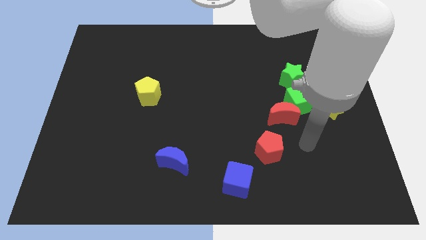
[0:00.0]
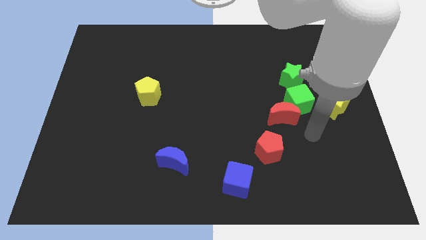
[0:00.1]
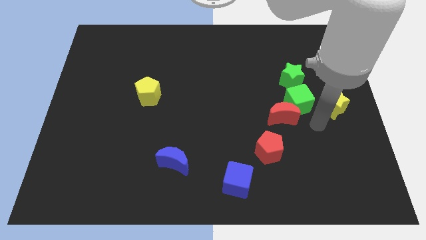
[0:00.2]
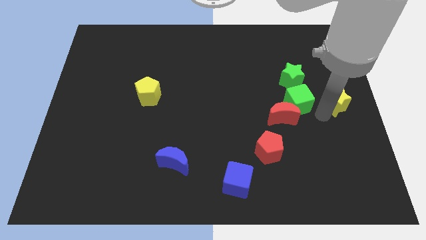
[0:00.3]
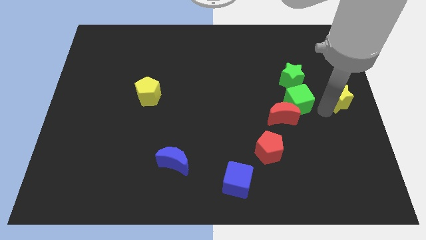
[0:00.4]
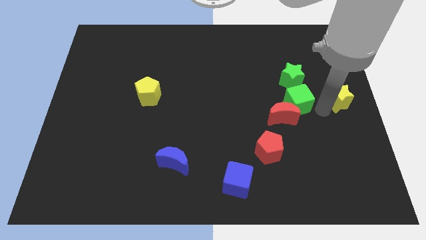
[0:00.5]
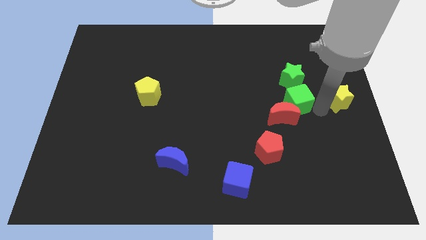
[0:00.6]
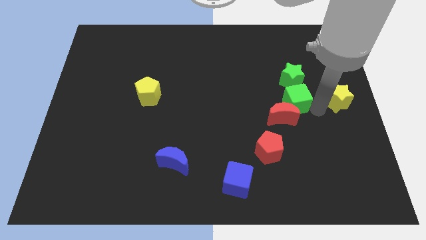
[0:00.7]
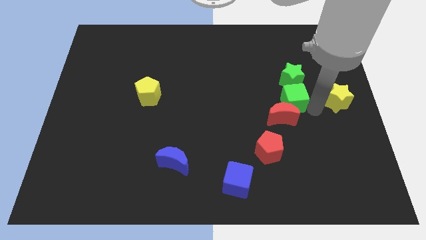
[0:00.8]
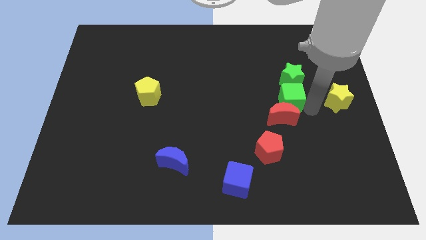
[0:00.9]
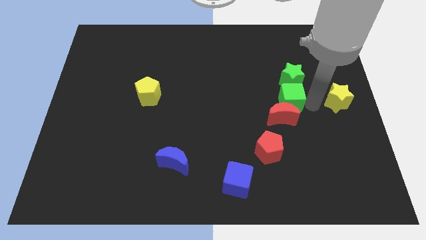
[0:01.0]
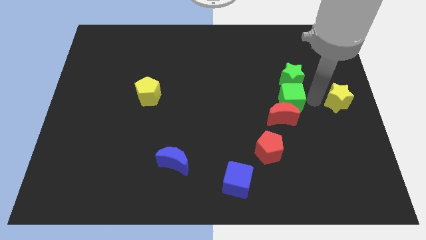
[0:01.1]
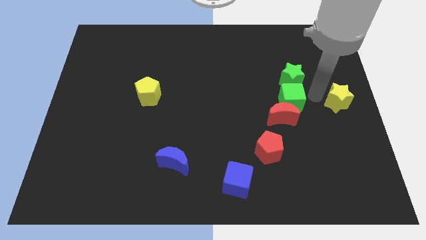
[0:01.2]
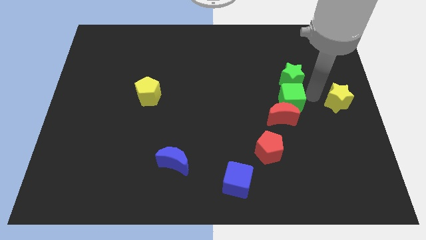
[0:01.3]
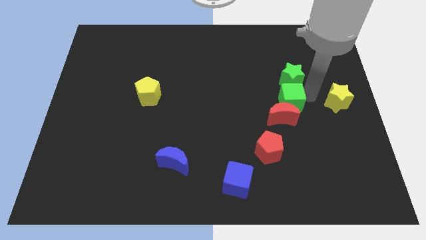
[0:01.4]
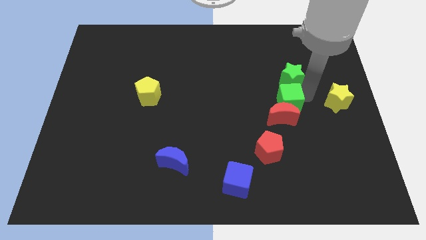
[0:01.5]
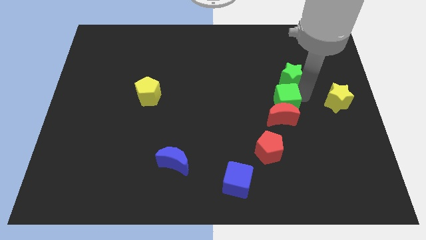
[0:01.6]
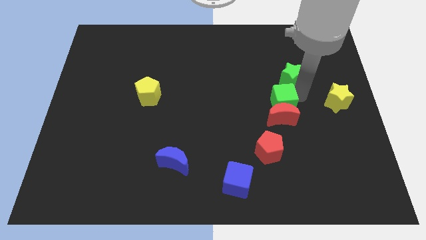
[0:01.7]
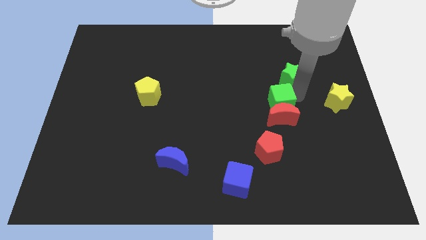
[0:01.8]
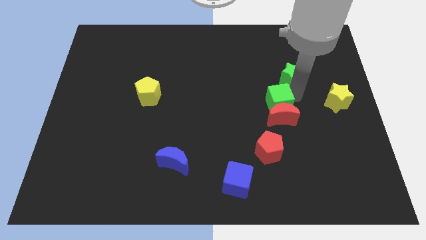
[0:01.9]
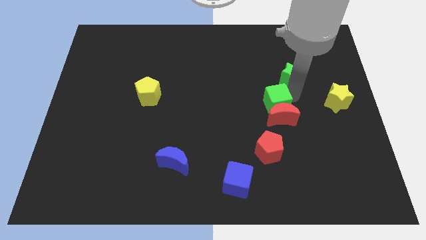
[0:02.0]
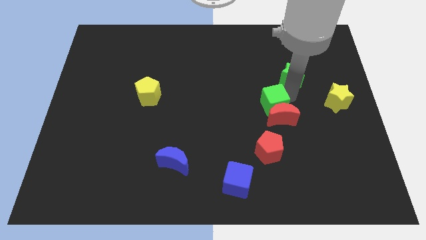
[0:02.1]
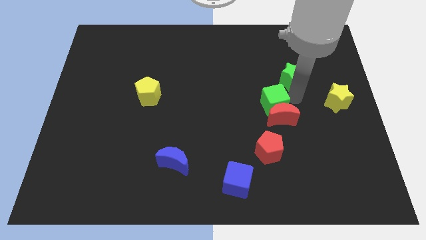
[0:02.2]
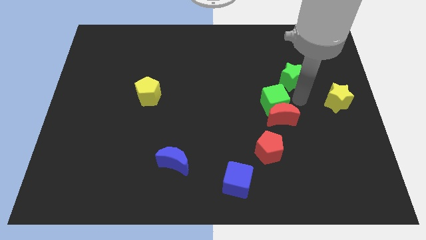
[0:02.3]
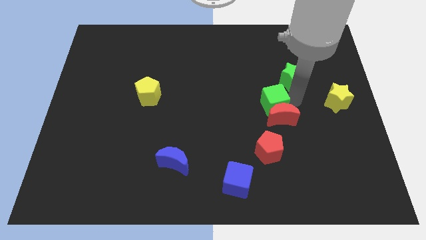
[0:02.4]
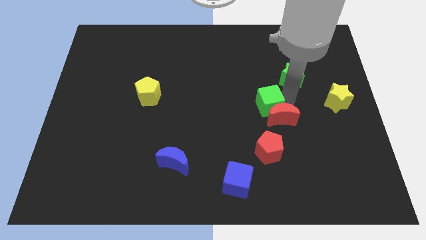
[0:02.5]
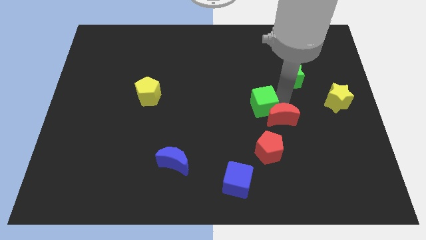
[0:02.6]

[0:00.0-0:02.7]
separate the green cube from the clump

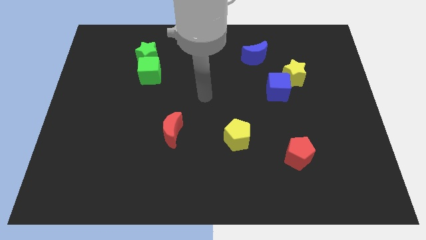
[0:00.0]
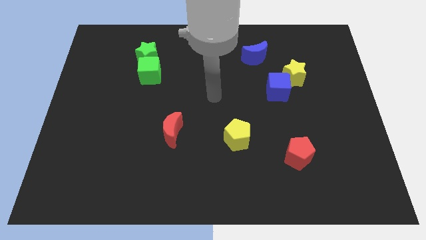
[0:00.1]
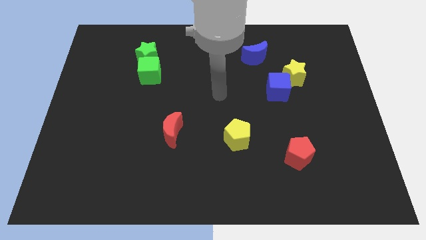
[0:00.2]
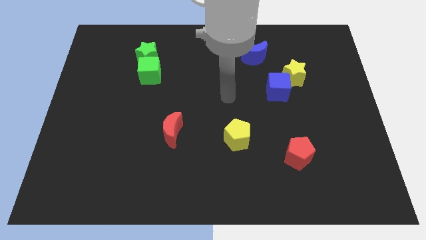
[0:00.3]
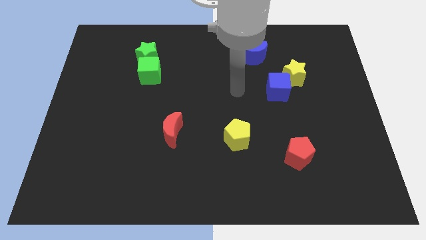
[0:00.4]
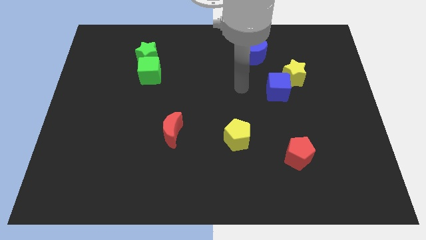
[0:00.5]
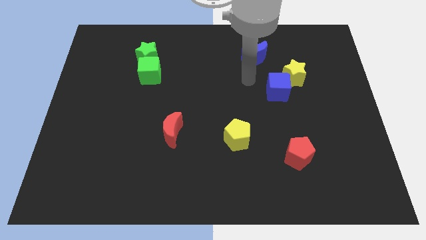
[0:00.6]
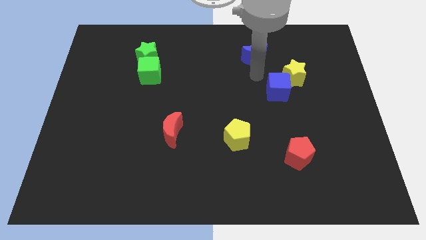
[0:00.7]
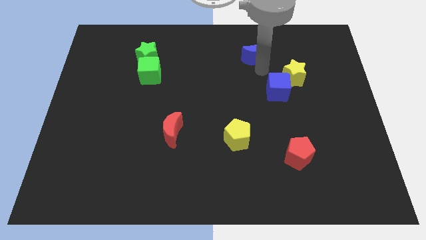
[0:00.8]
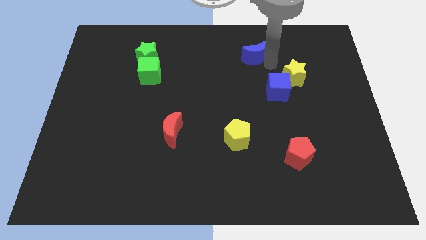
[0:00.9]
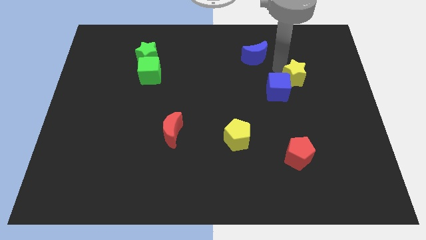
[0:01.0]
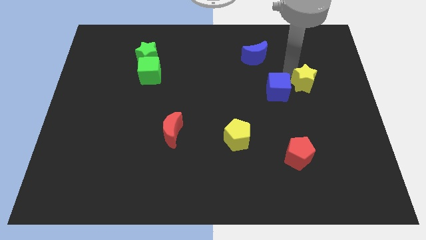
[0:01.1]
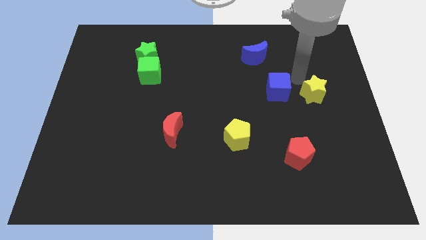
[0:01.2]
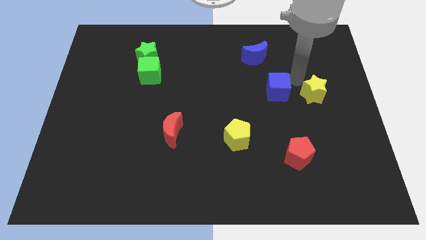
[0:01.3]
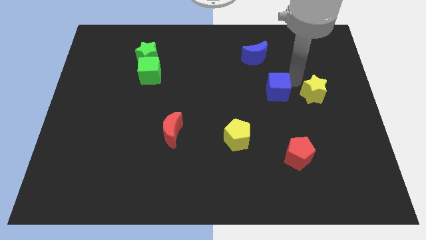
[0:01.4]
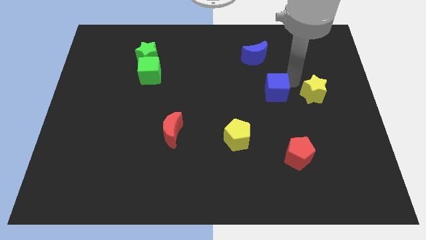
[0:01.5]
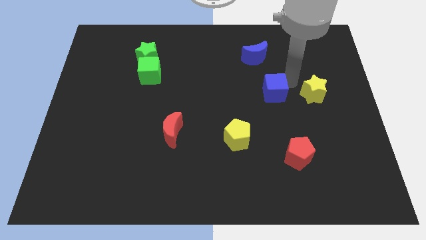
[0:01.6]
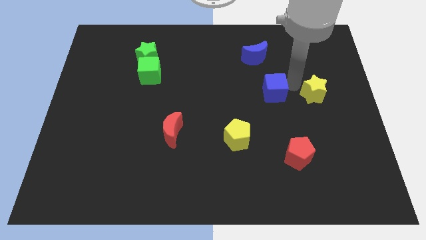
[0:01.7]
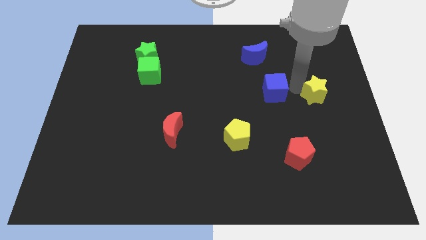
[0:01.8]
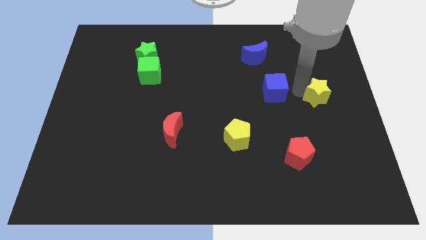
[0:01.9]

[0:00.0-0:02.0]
move the blue cube away from the yellow star

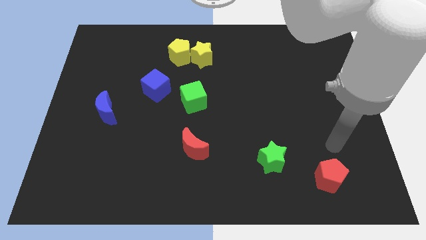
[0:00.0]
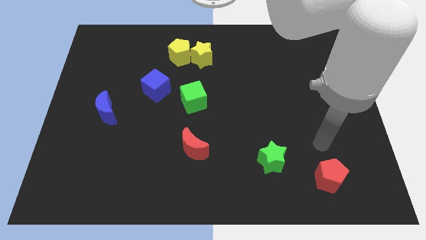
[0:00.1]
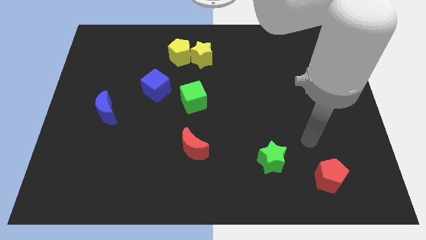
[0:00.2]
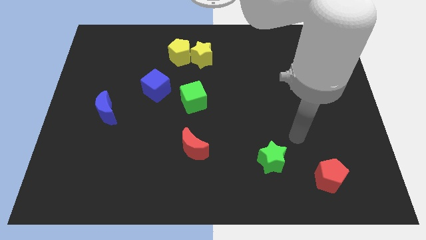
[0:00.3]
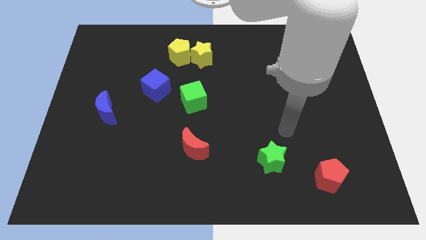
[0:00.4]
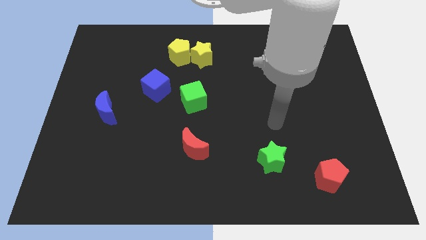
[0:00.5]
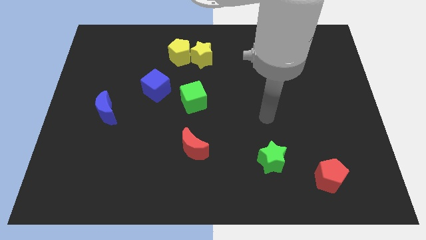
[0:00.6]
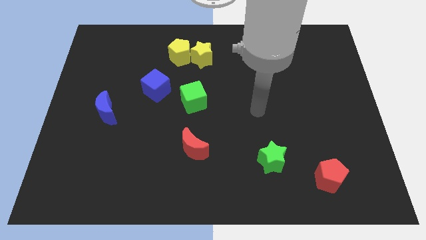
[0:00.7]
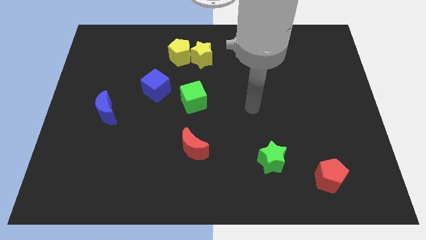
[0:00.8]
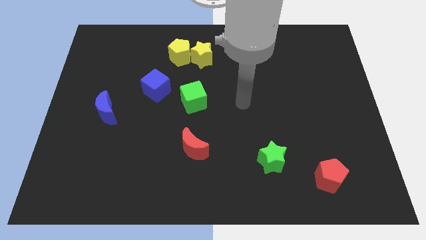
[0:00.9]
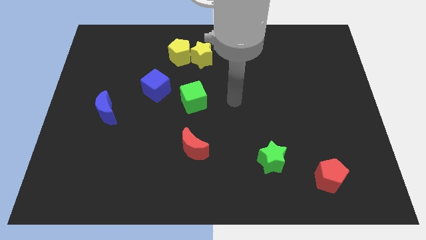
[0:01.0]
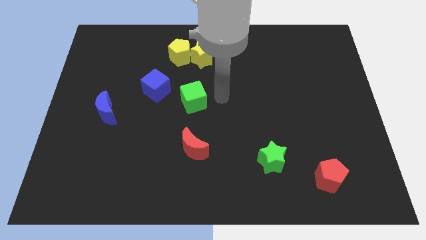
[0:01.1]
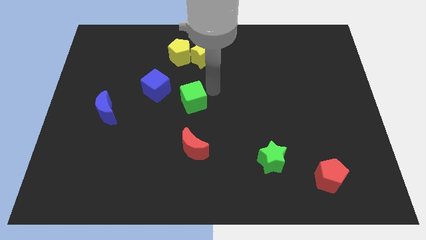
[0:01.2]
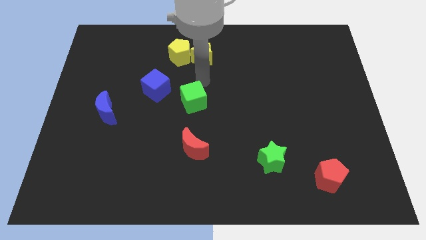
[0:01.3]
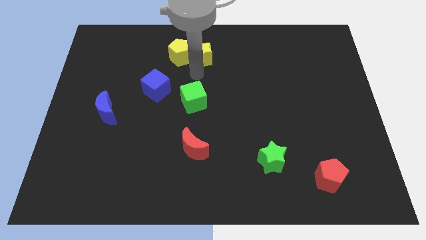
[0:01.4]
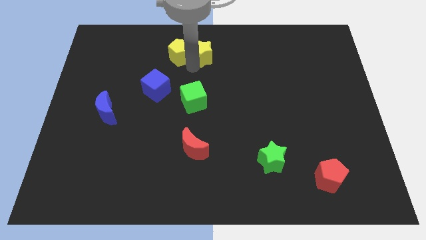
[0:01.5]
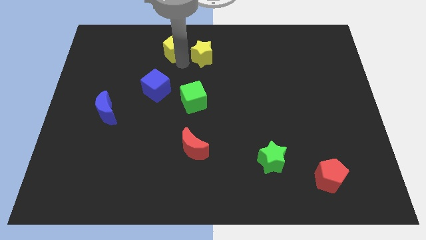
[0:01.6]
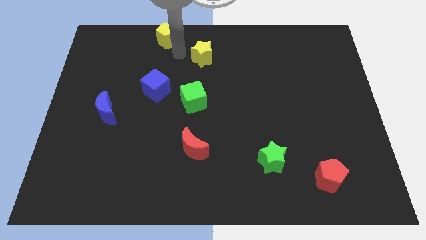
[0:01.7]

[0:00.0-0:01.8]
move the yellow star away from the yellow pentagon

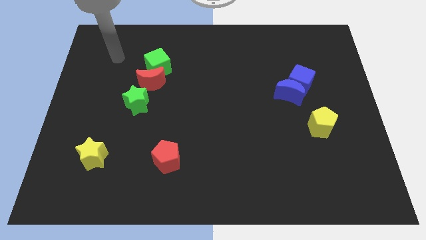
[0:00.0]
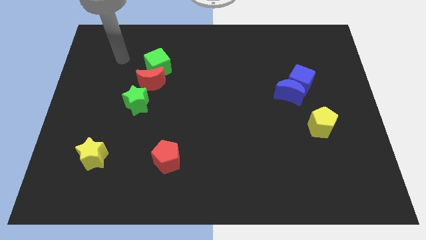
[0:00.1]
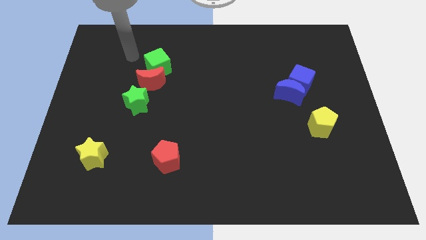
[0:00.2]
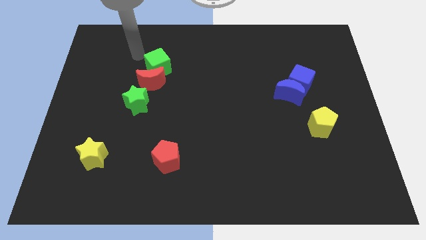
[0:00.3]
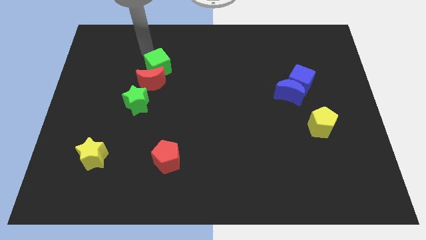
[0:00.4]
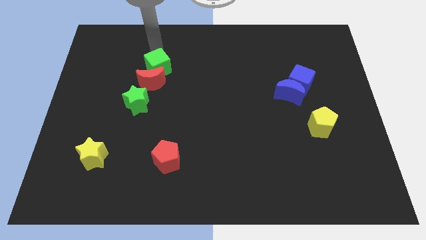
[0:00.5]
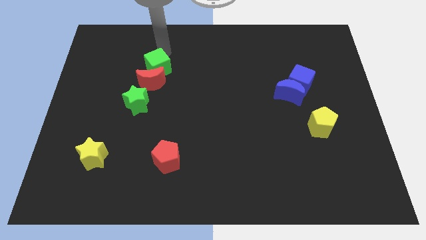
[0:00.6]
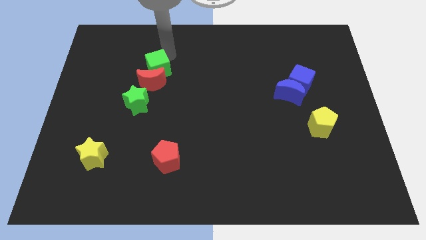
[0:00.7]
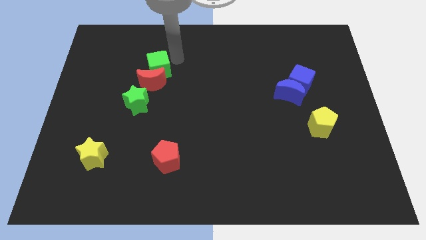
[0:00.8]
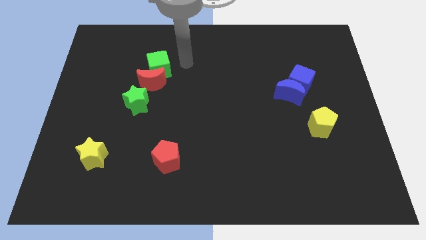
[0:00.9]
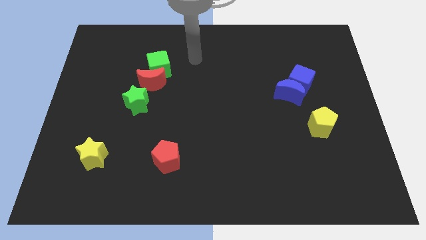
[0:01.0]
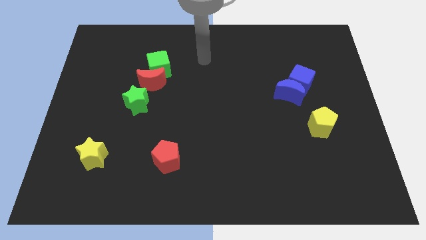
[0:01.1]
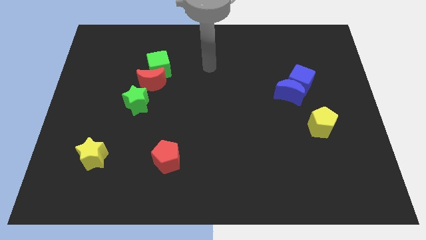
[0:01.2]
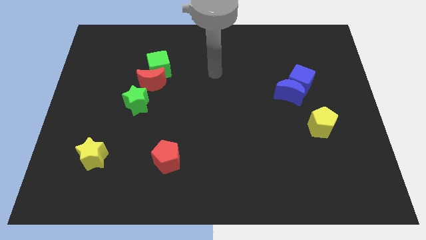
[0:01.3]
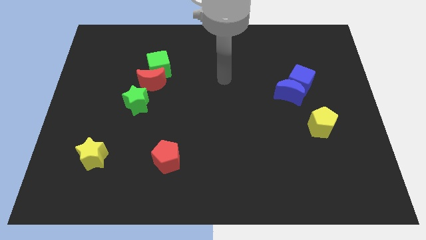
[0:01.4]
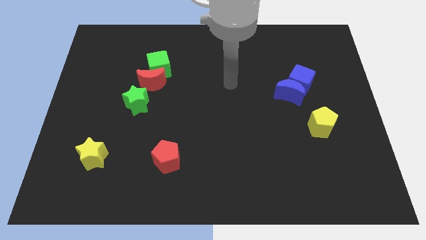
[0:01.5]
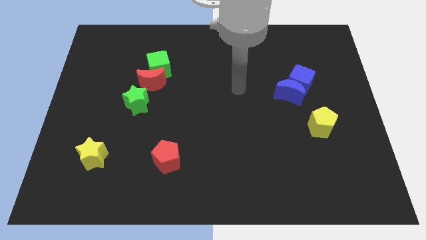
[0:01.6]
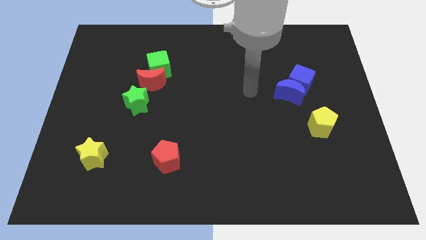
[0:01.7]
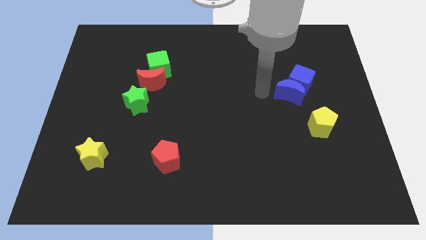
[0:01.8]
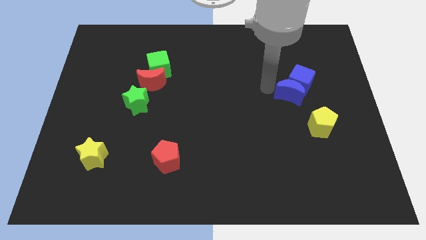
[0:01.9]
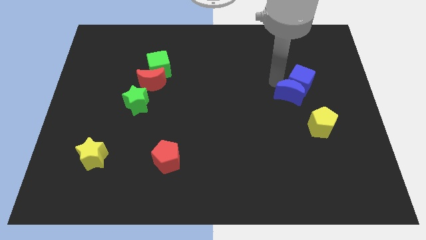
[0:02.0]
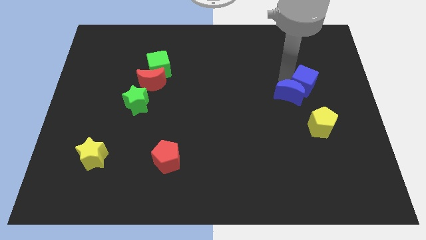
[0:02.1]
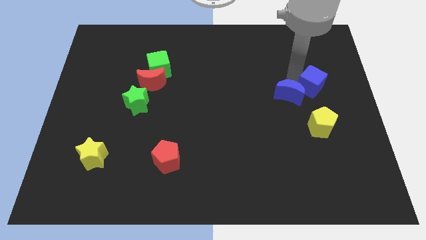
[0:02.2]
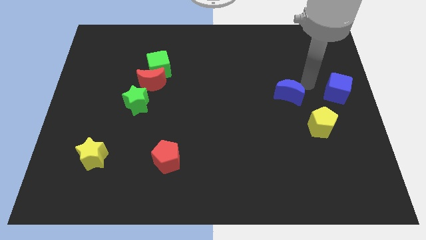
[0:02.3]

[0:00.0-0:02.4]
move the blue moon away from the blue cube

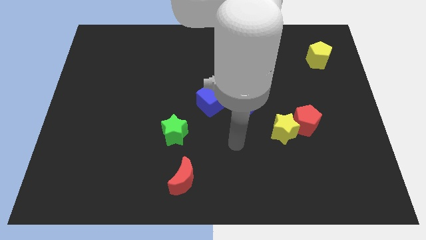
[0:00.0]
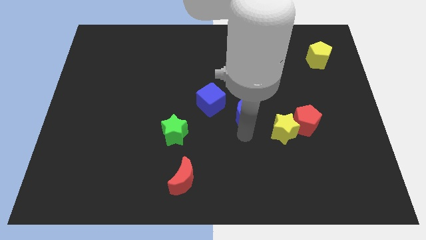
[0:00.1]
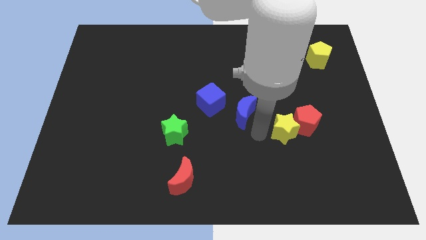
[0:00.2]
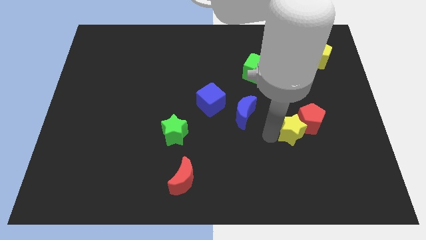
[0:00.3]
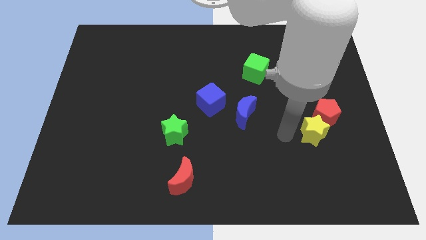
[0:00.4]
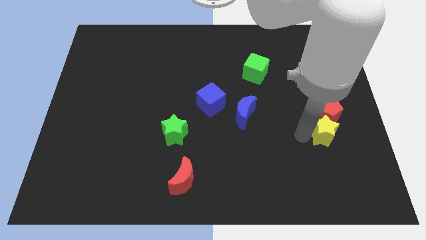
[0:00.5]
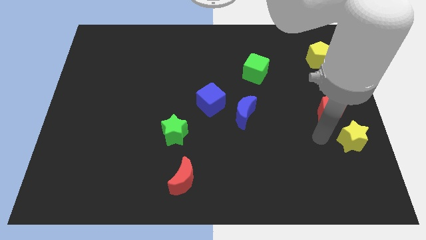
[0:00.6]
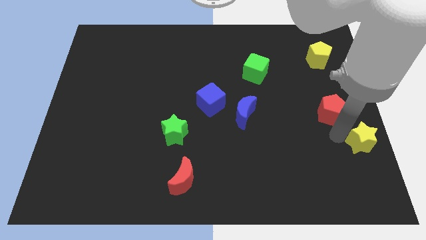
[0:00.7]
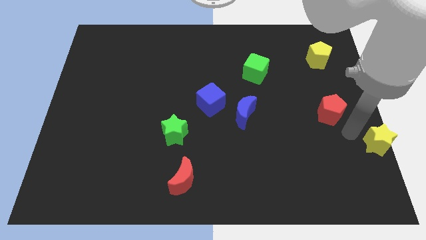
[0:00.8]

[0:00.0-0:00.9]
pull the red pentagon apart from the yellow star
